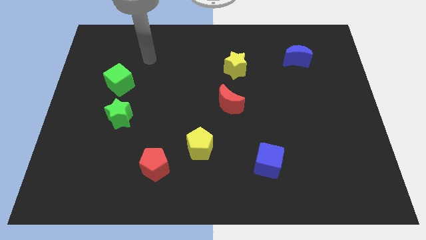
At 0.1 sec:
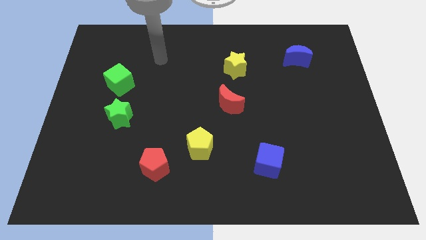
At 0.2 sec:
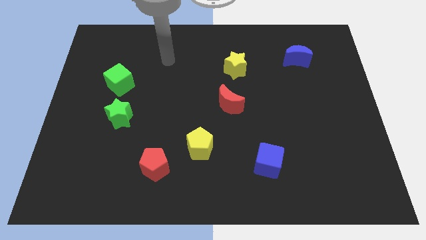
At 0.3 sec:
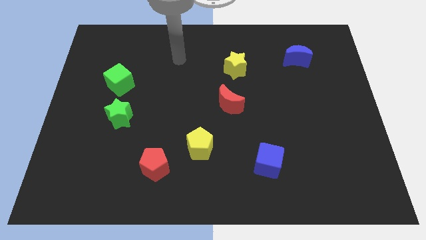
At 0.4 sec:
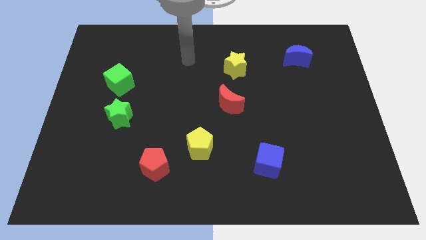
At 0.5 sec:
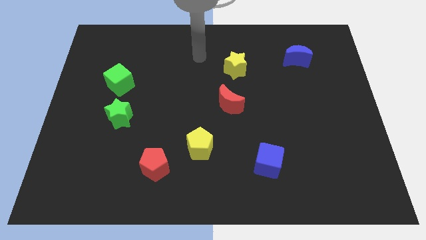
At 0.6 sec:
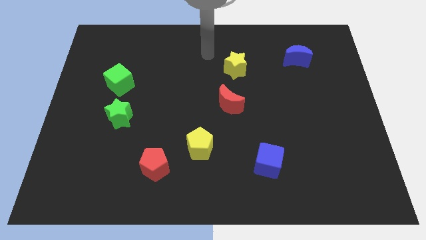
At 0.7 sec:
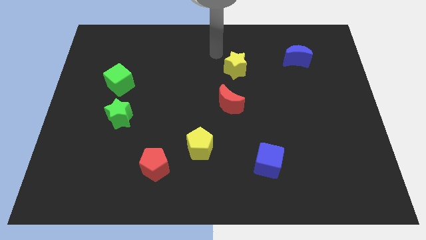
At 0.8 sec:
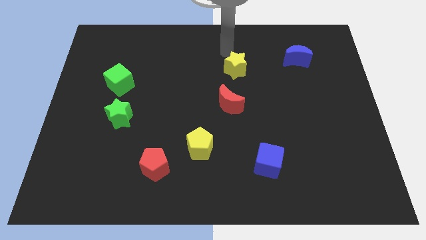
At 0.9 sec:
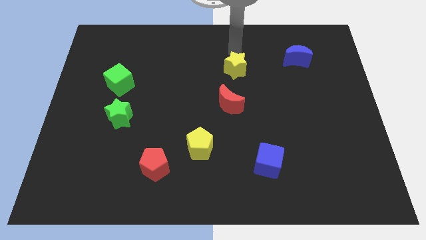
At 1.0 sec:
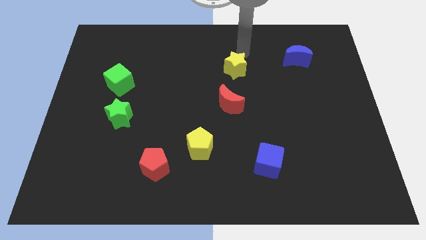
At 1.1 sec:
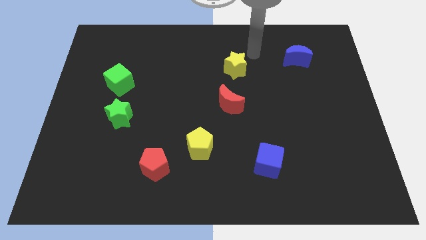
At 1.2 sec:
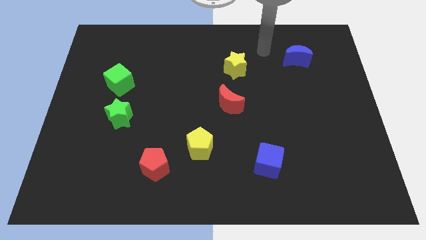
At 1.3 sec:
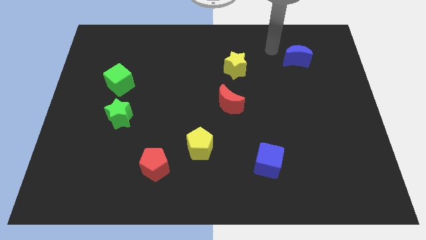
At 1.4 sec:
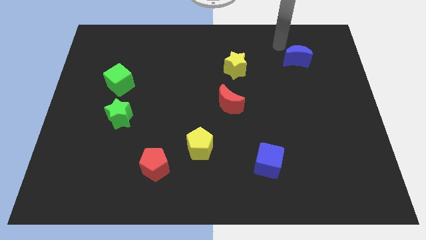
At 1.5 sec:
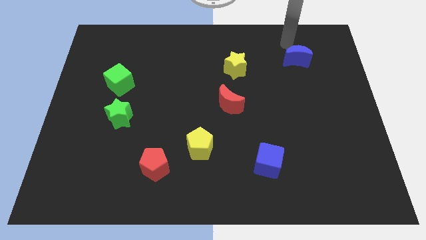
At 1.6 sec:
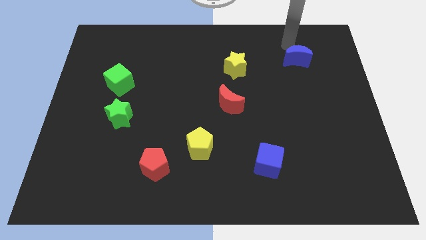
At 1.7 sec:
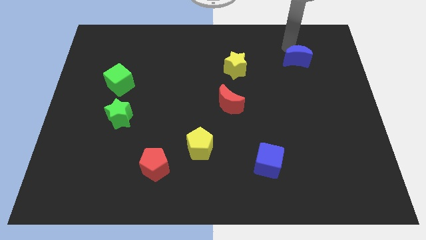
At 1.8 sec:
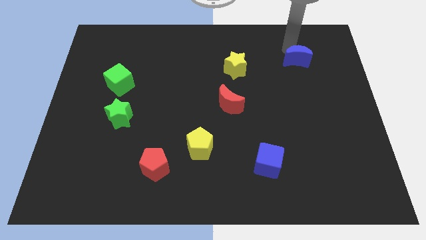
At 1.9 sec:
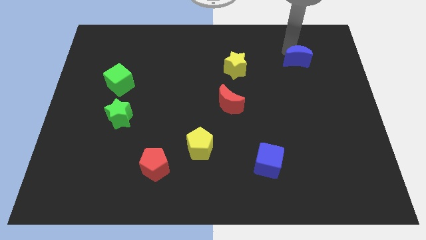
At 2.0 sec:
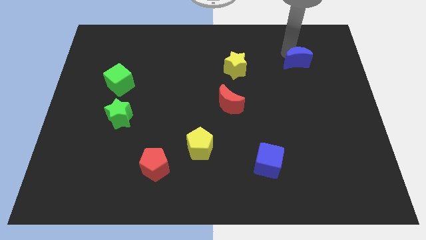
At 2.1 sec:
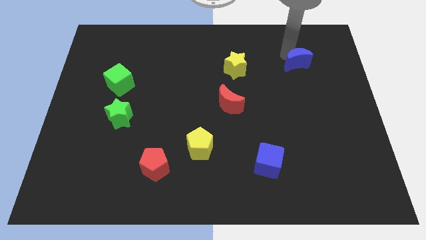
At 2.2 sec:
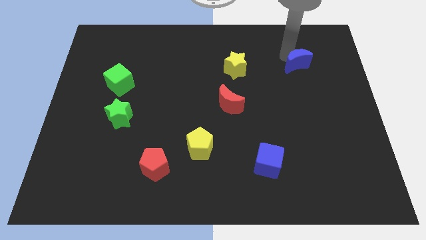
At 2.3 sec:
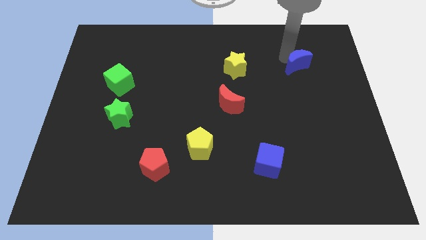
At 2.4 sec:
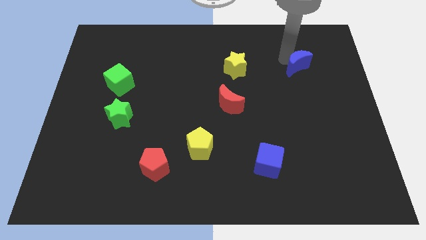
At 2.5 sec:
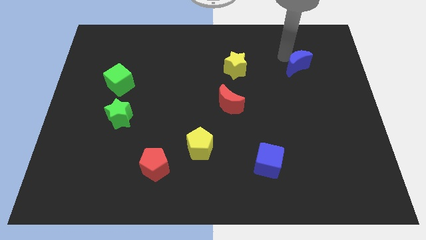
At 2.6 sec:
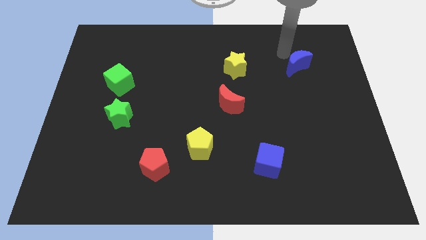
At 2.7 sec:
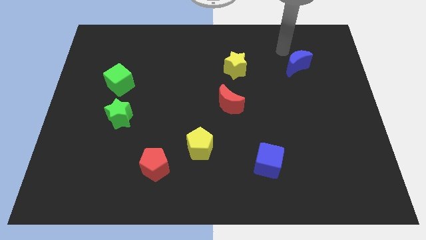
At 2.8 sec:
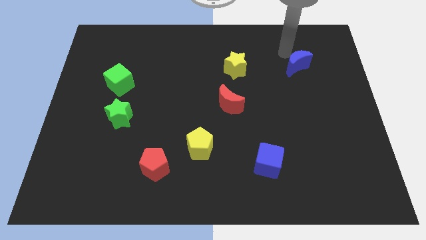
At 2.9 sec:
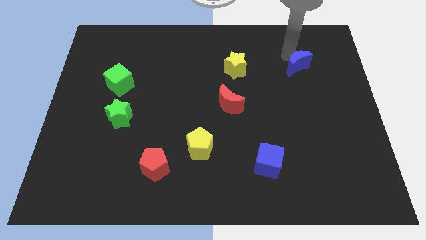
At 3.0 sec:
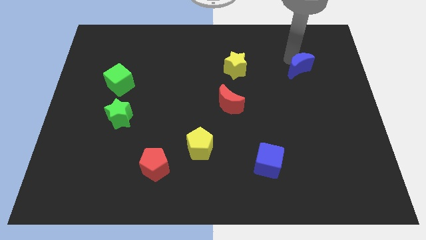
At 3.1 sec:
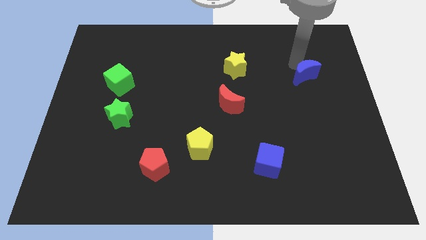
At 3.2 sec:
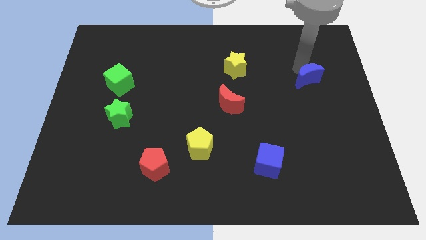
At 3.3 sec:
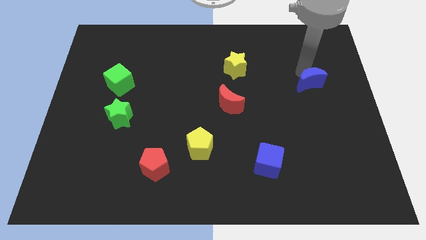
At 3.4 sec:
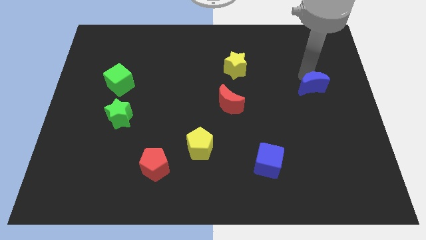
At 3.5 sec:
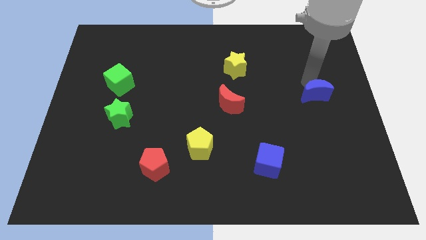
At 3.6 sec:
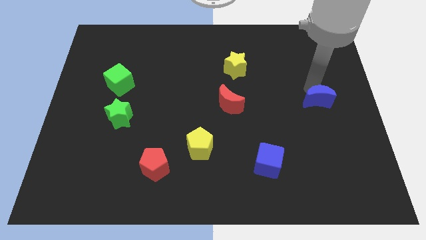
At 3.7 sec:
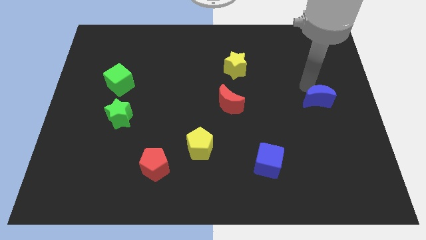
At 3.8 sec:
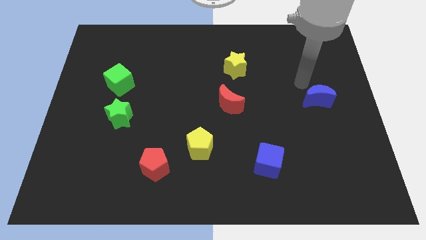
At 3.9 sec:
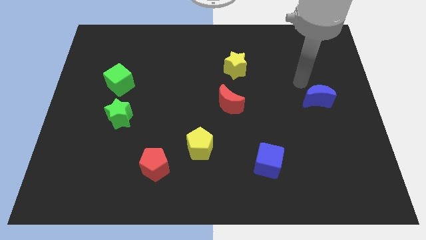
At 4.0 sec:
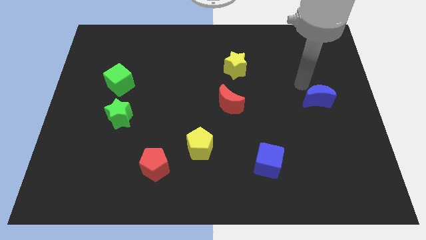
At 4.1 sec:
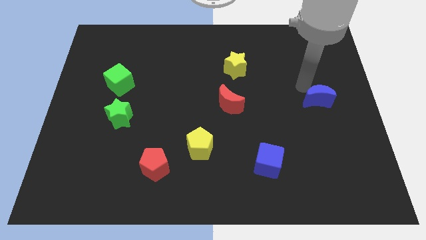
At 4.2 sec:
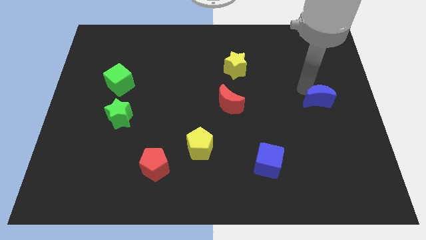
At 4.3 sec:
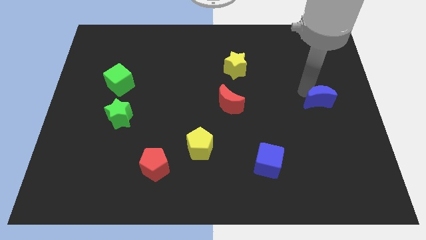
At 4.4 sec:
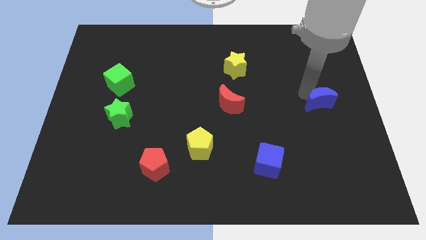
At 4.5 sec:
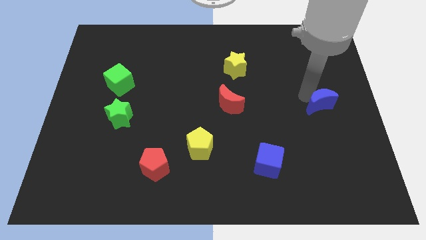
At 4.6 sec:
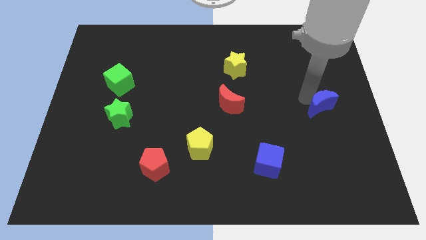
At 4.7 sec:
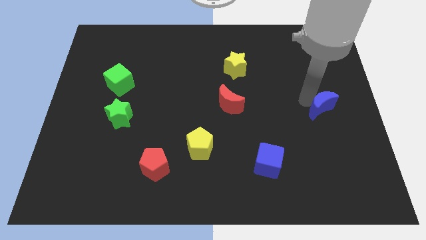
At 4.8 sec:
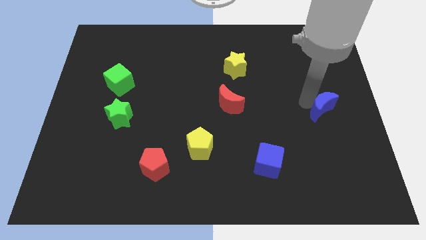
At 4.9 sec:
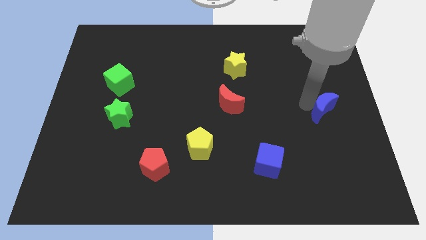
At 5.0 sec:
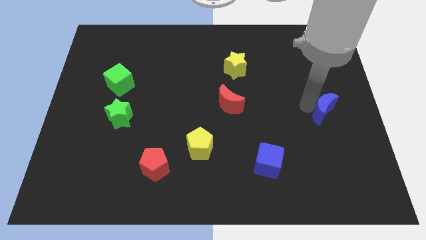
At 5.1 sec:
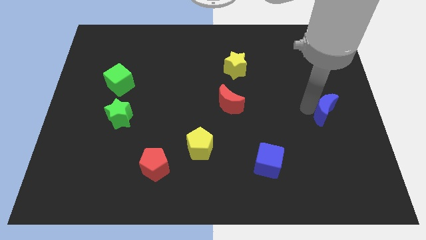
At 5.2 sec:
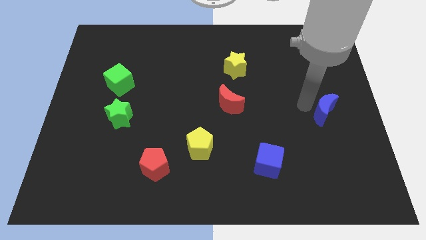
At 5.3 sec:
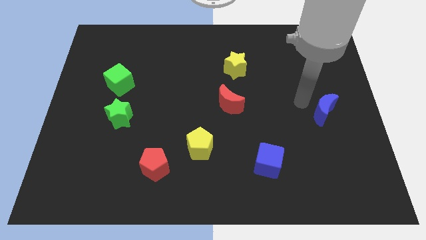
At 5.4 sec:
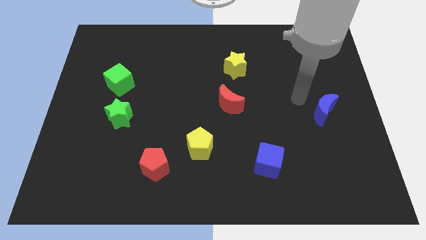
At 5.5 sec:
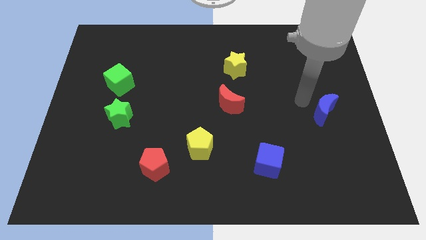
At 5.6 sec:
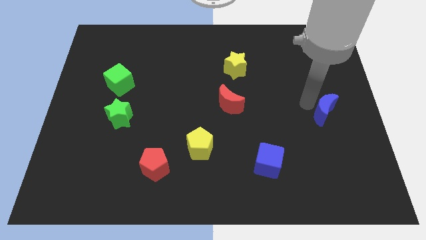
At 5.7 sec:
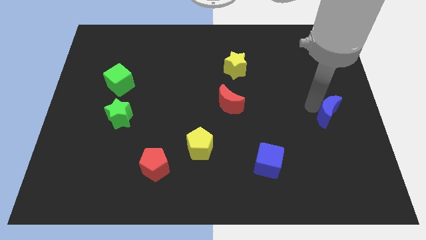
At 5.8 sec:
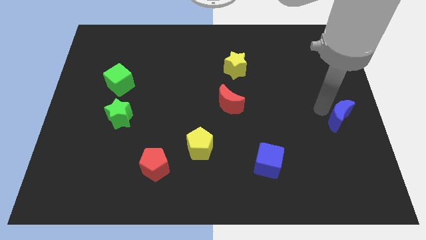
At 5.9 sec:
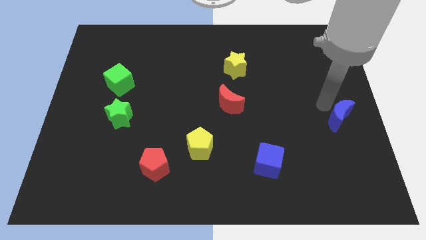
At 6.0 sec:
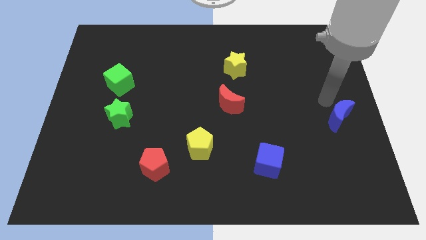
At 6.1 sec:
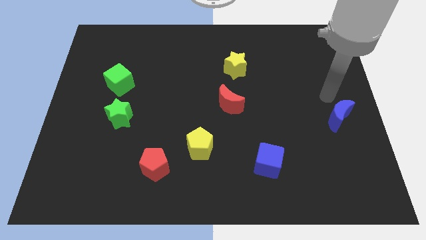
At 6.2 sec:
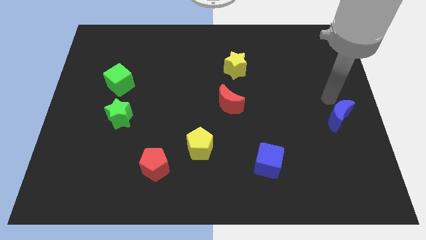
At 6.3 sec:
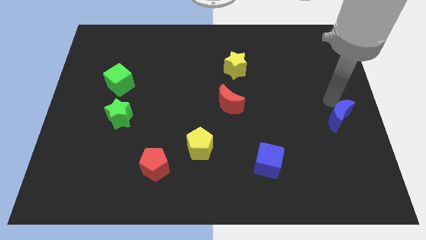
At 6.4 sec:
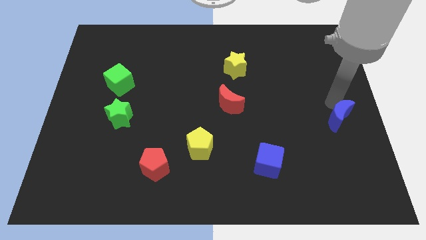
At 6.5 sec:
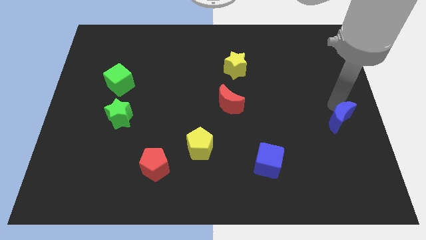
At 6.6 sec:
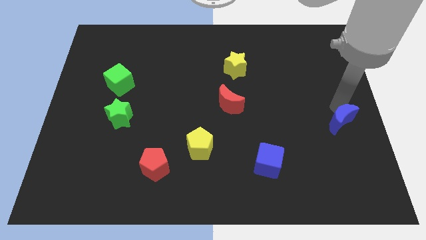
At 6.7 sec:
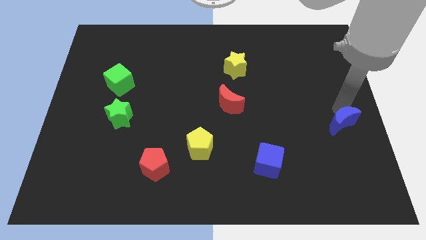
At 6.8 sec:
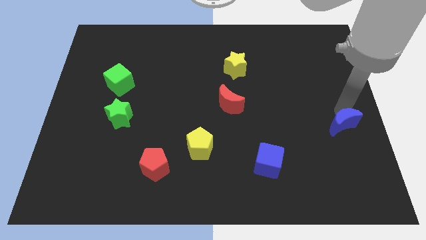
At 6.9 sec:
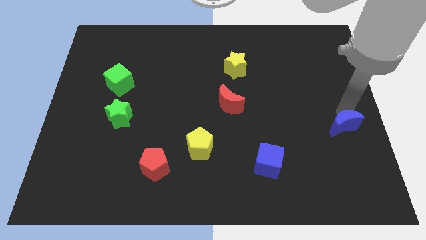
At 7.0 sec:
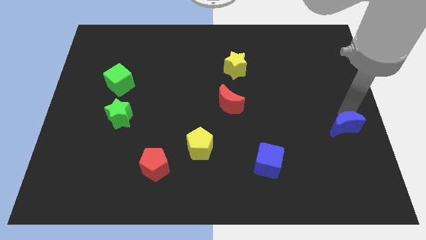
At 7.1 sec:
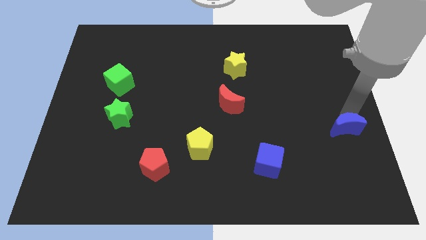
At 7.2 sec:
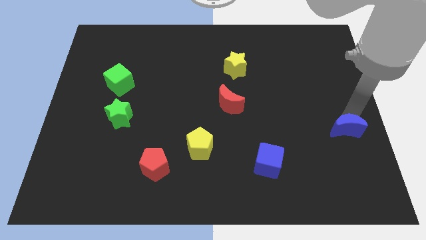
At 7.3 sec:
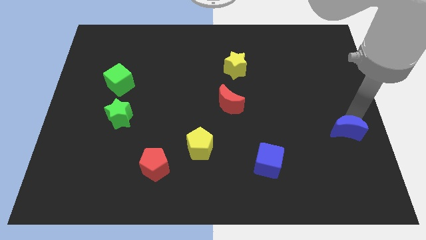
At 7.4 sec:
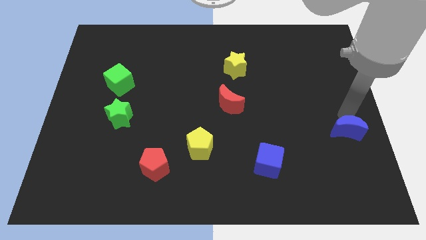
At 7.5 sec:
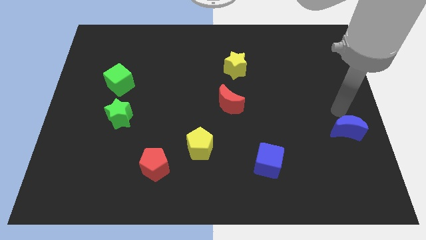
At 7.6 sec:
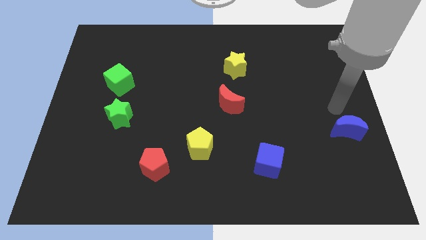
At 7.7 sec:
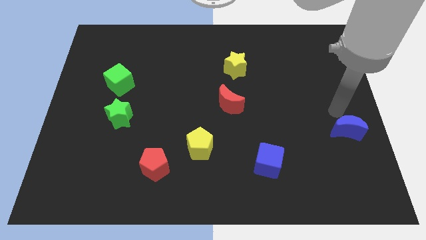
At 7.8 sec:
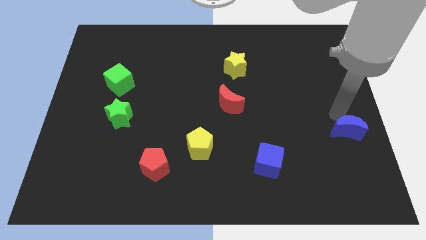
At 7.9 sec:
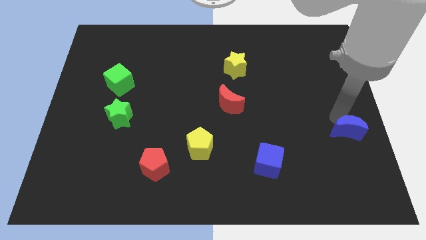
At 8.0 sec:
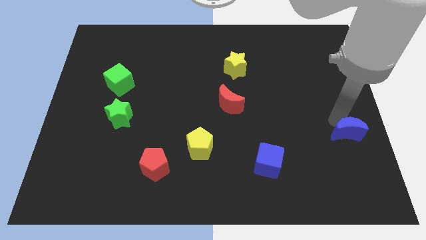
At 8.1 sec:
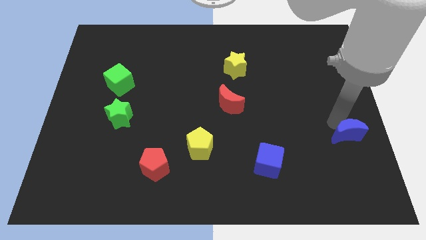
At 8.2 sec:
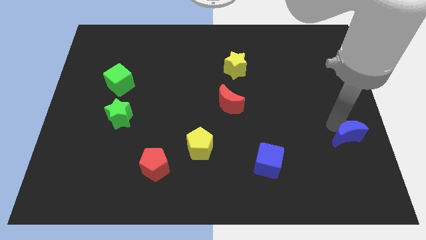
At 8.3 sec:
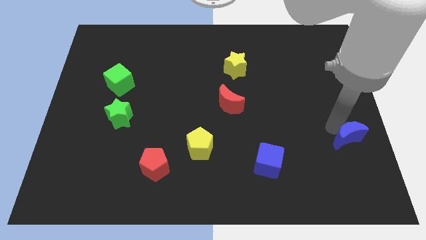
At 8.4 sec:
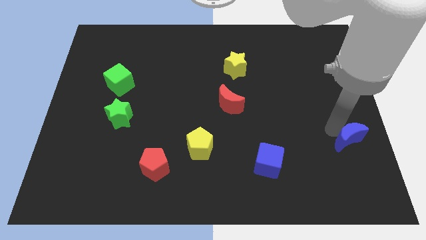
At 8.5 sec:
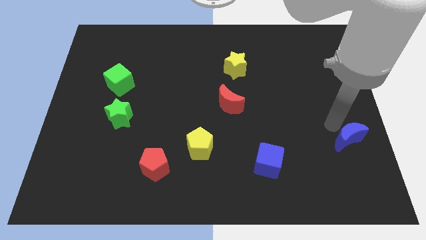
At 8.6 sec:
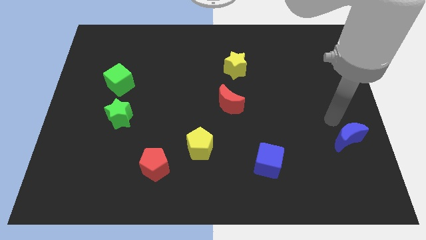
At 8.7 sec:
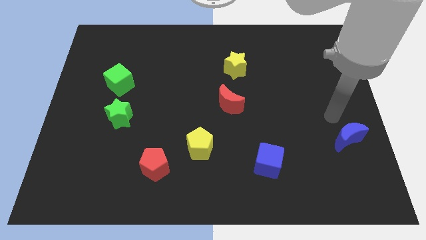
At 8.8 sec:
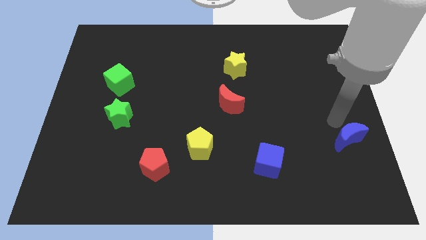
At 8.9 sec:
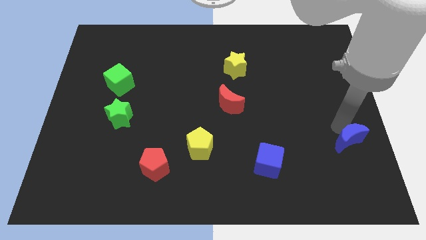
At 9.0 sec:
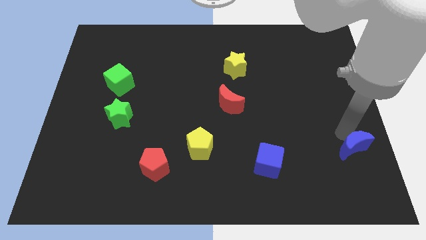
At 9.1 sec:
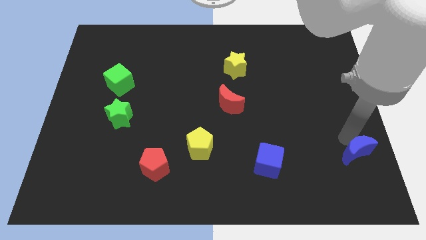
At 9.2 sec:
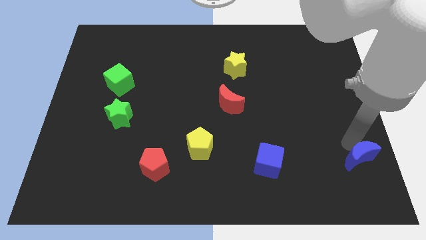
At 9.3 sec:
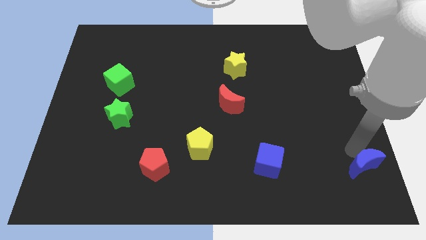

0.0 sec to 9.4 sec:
put the blue moon to the bottom right
